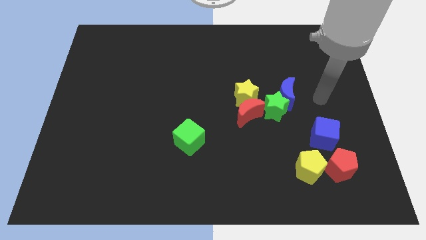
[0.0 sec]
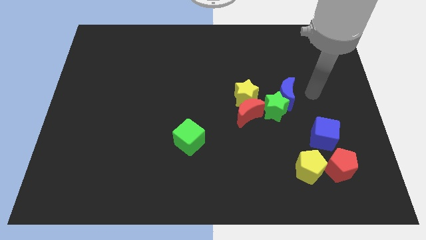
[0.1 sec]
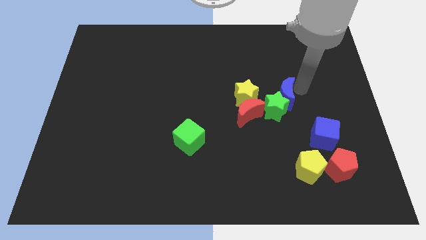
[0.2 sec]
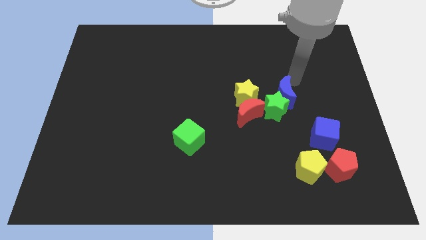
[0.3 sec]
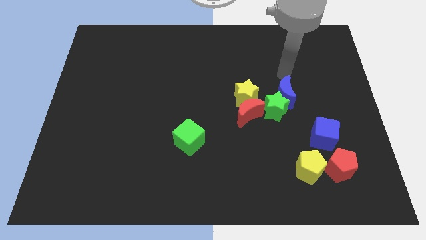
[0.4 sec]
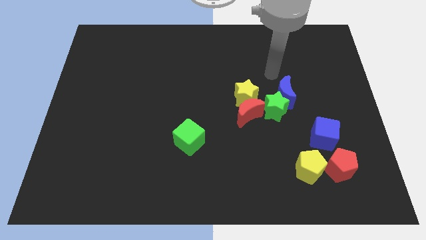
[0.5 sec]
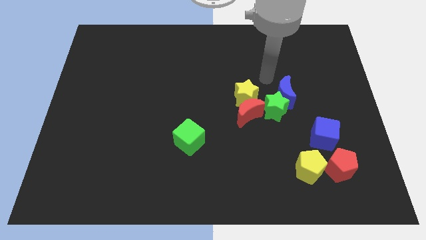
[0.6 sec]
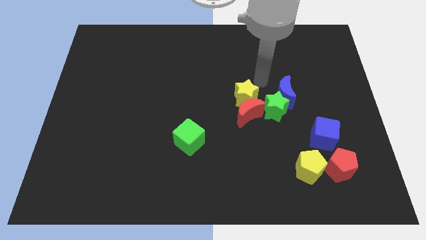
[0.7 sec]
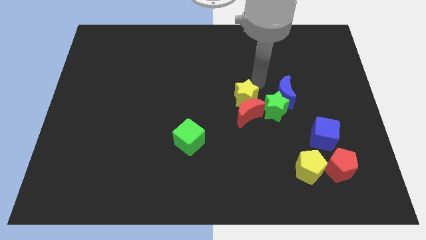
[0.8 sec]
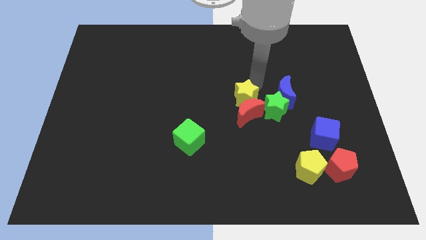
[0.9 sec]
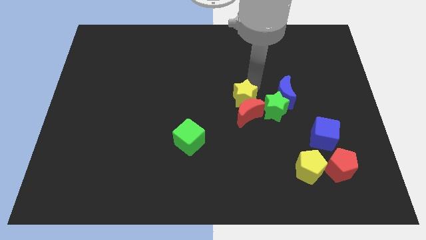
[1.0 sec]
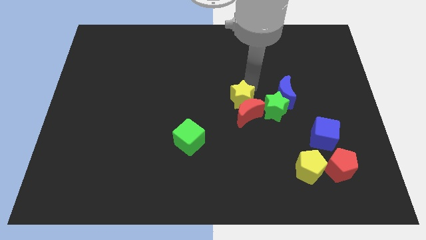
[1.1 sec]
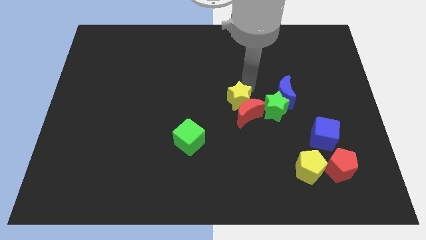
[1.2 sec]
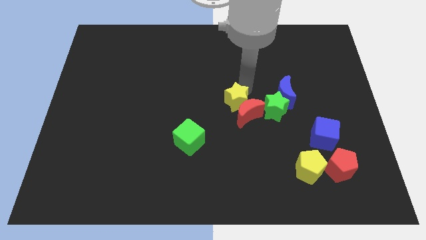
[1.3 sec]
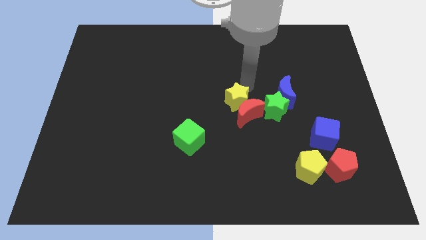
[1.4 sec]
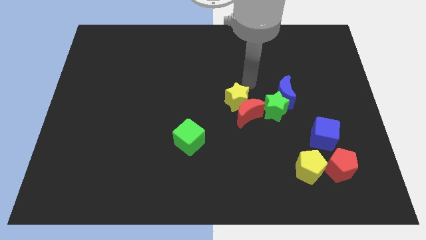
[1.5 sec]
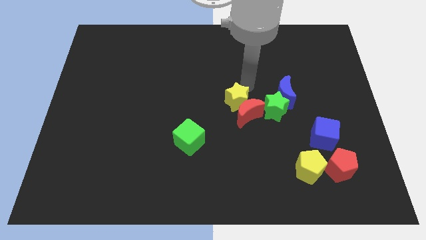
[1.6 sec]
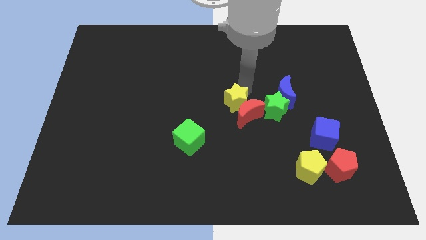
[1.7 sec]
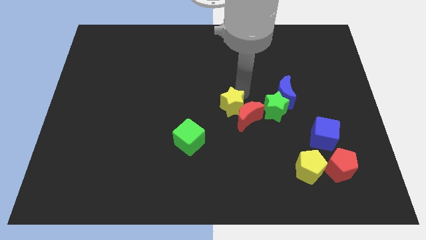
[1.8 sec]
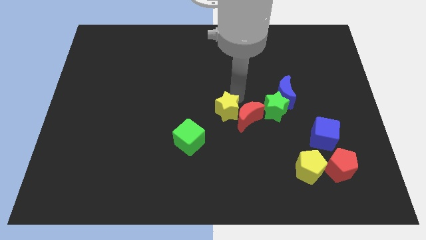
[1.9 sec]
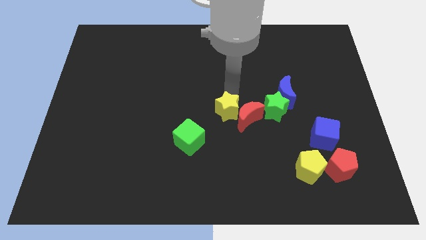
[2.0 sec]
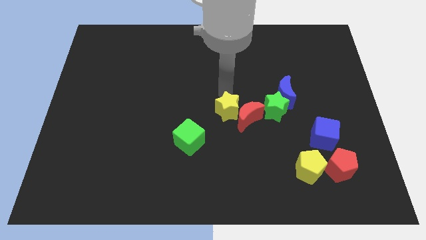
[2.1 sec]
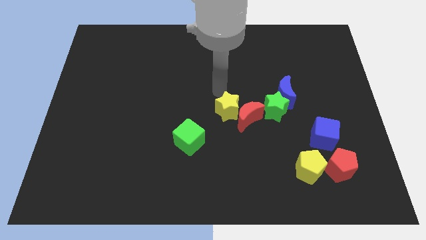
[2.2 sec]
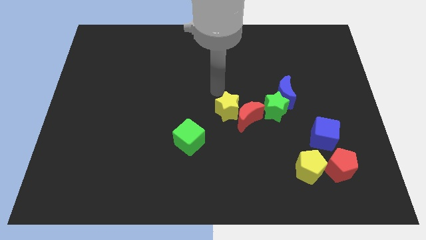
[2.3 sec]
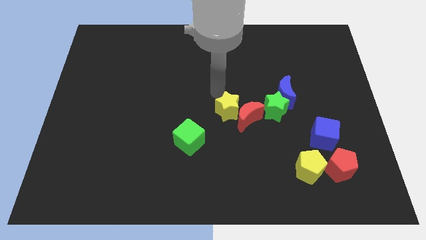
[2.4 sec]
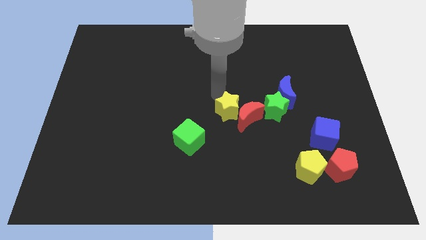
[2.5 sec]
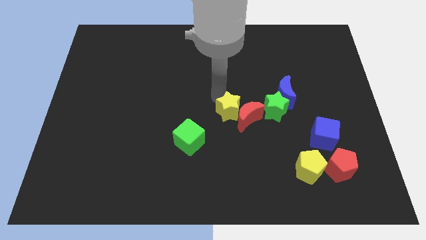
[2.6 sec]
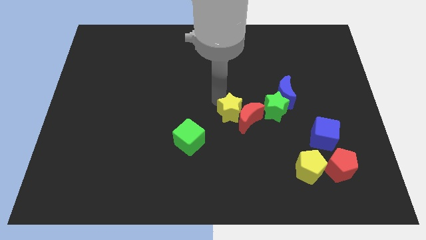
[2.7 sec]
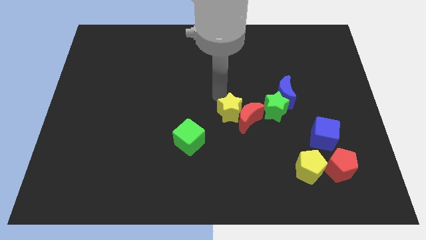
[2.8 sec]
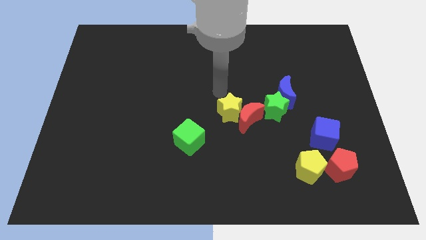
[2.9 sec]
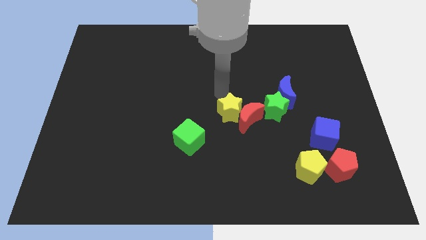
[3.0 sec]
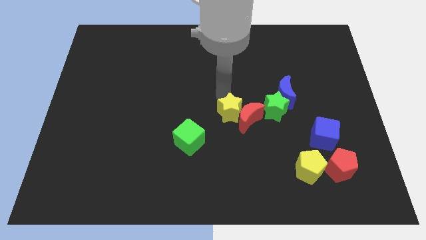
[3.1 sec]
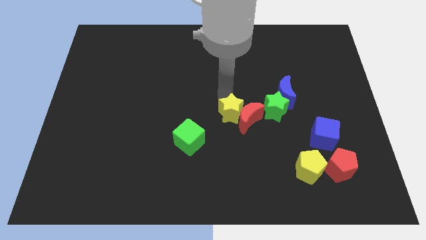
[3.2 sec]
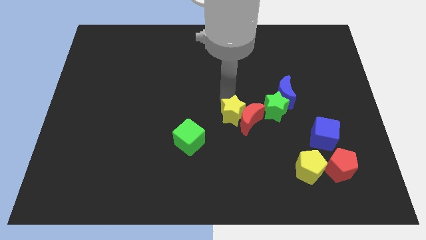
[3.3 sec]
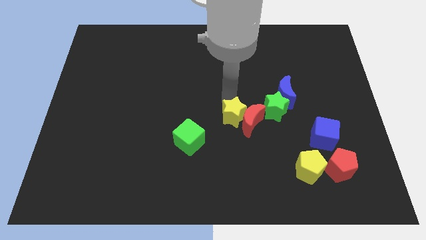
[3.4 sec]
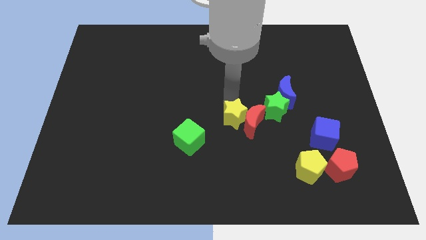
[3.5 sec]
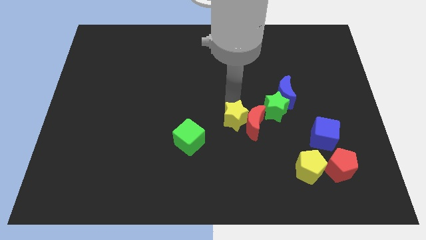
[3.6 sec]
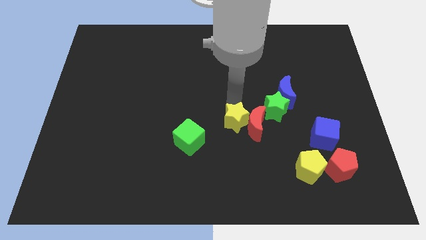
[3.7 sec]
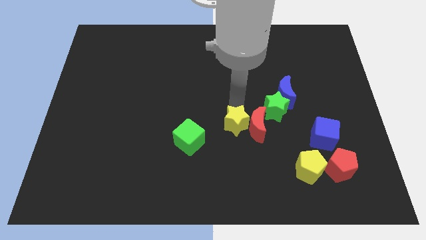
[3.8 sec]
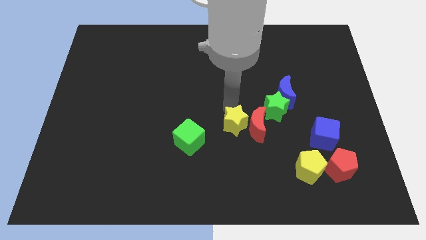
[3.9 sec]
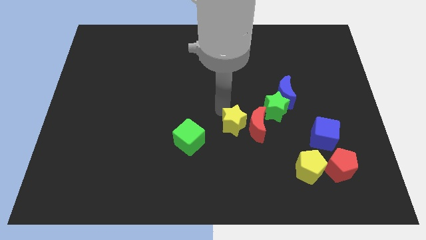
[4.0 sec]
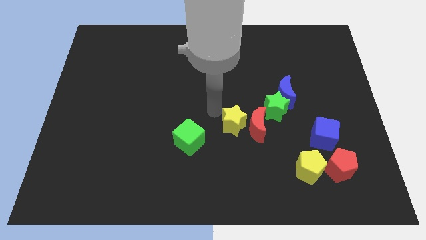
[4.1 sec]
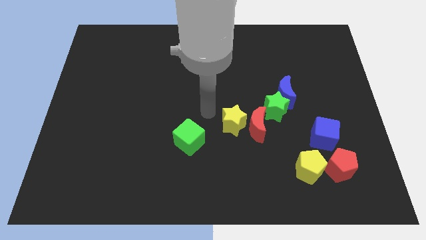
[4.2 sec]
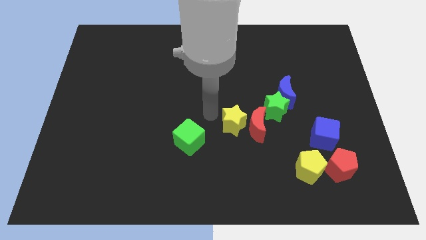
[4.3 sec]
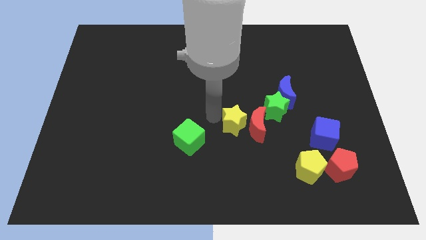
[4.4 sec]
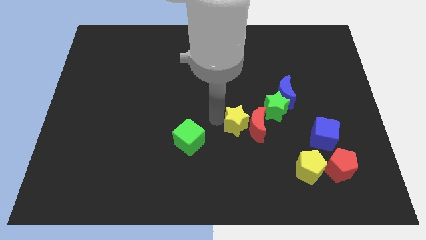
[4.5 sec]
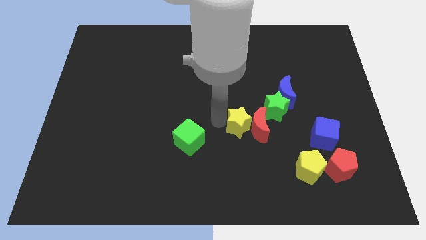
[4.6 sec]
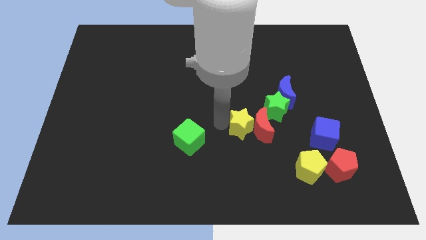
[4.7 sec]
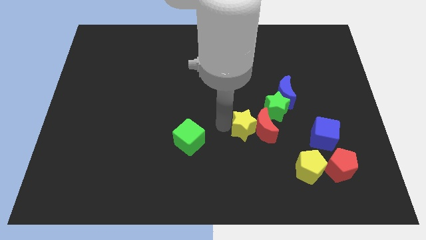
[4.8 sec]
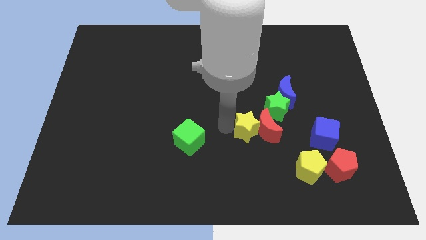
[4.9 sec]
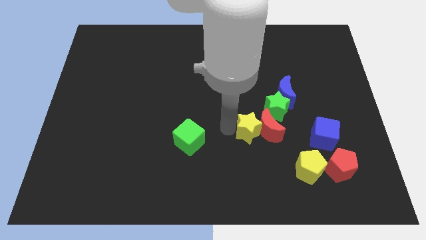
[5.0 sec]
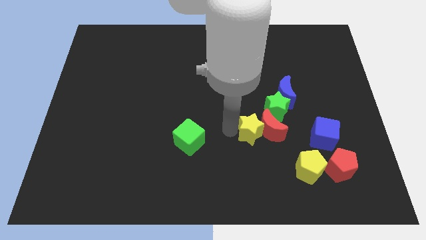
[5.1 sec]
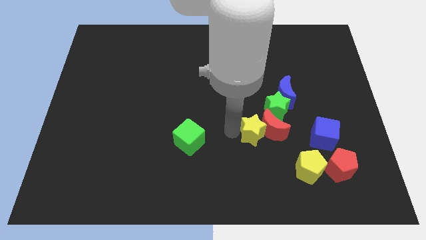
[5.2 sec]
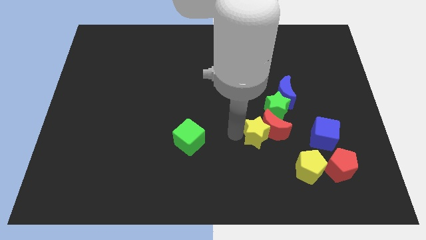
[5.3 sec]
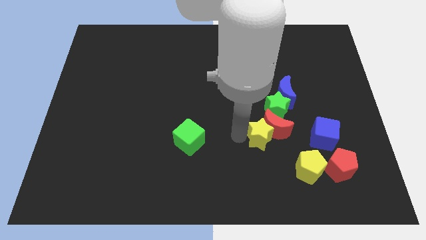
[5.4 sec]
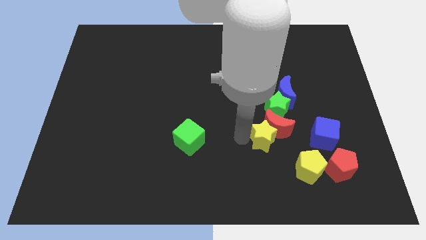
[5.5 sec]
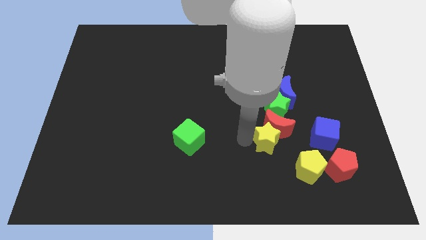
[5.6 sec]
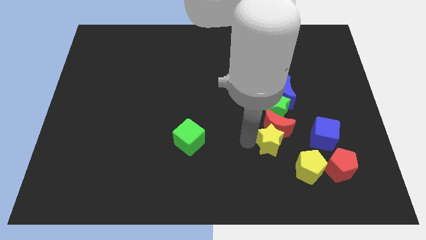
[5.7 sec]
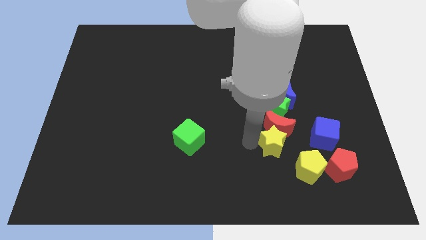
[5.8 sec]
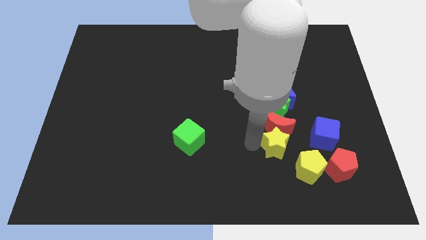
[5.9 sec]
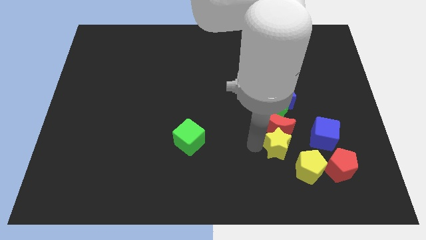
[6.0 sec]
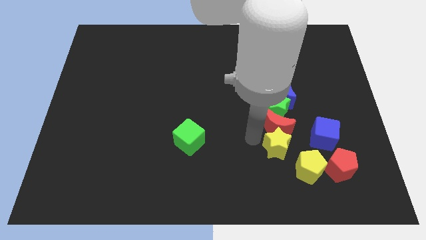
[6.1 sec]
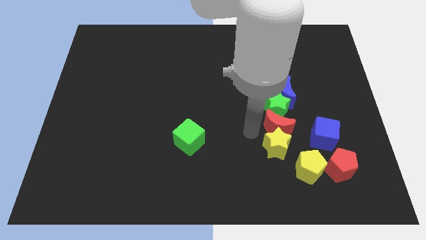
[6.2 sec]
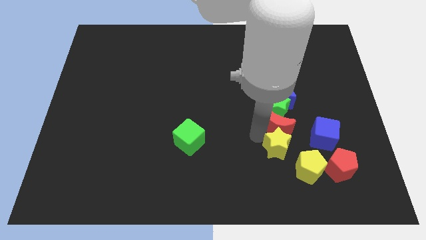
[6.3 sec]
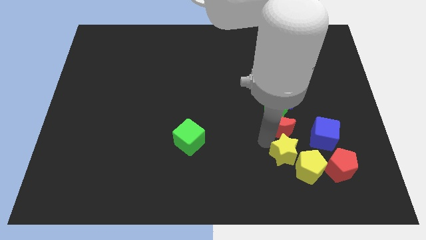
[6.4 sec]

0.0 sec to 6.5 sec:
put the yellow star close to the yellow pentagon

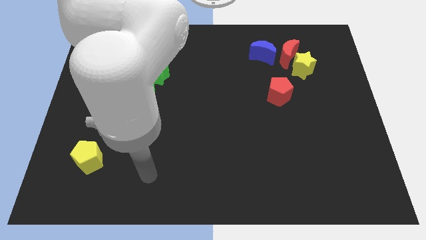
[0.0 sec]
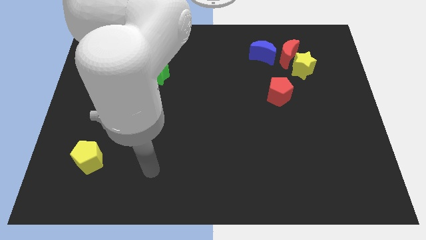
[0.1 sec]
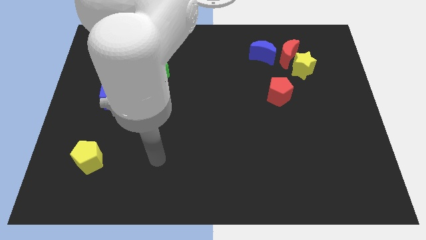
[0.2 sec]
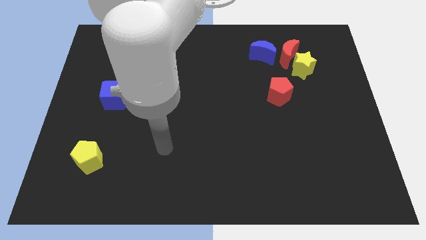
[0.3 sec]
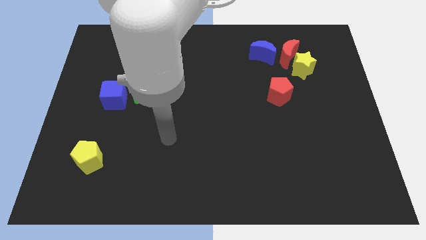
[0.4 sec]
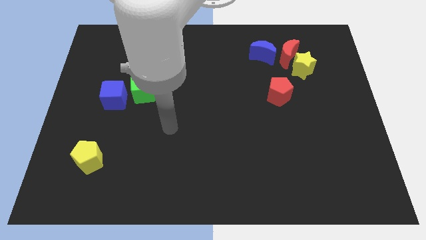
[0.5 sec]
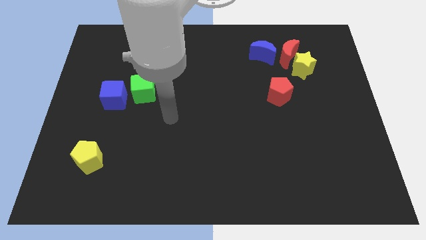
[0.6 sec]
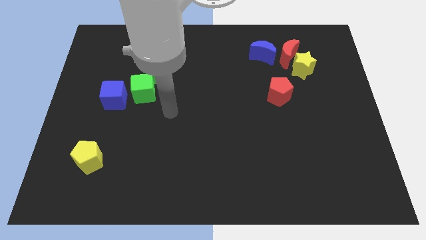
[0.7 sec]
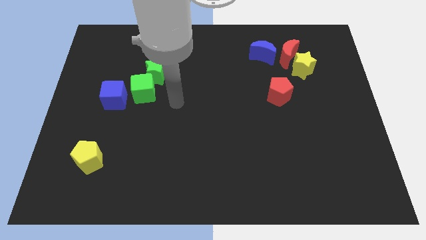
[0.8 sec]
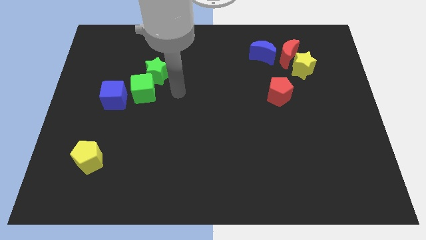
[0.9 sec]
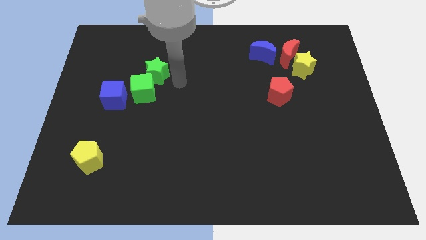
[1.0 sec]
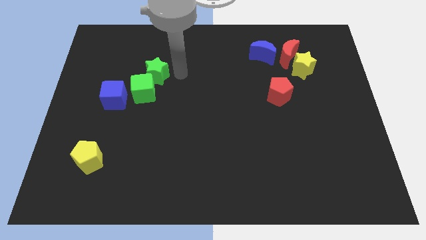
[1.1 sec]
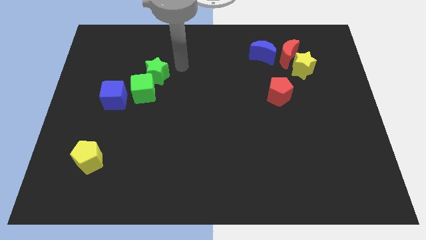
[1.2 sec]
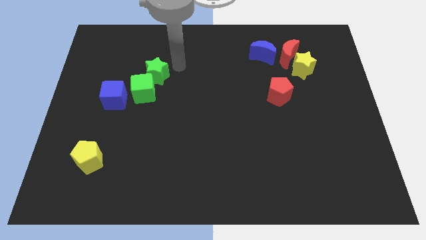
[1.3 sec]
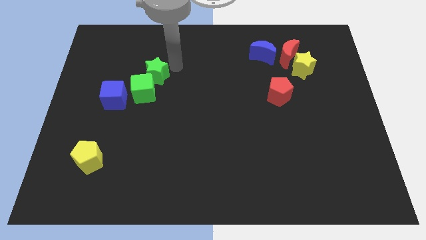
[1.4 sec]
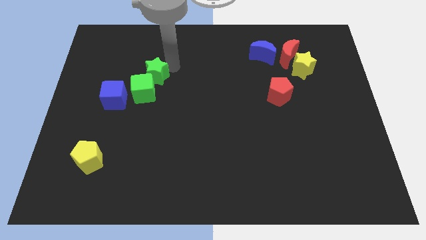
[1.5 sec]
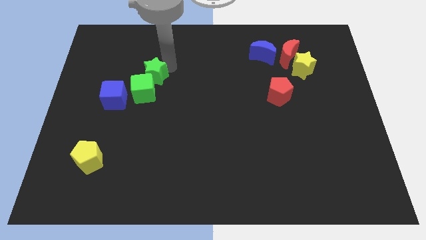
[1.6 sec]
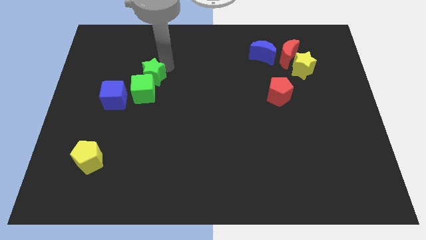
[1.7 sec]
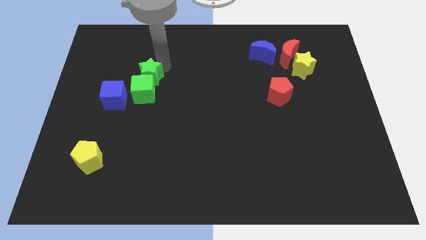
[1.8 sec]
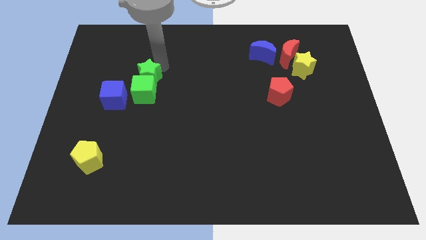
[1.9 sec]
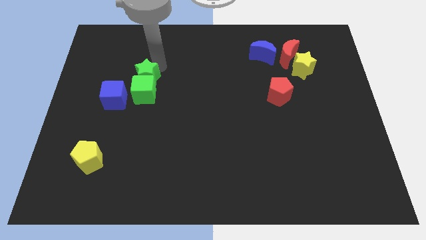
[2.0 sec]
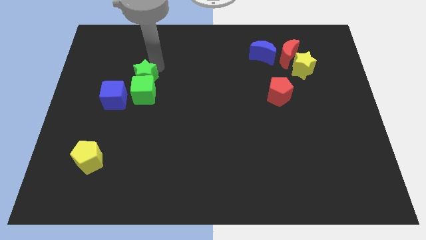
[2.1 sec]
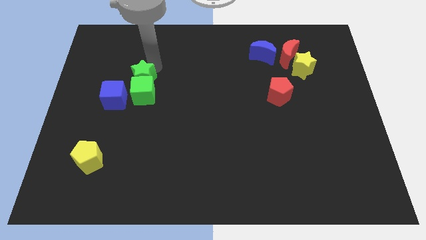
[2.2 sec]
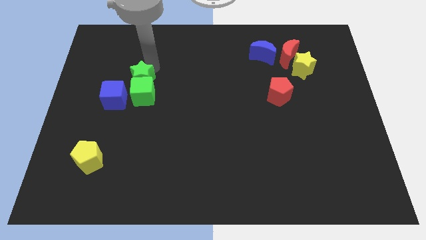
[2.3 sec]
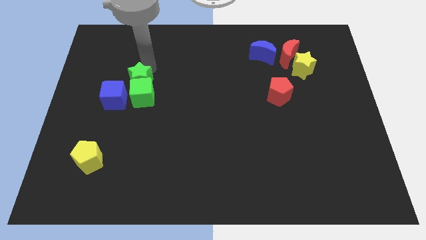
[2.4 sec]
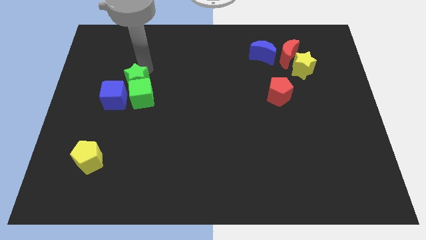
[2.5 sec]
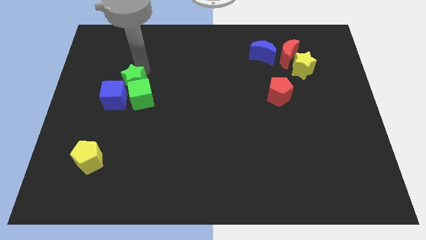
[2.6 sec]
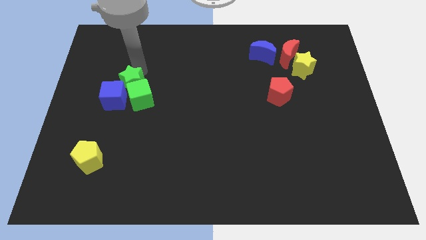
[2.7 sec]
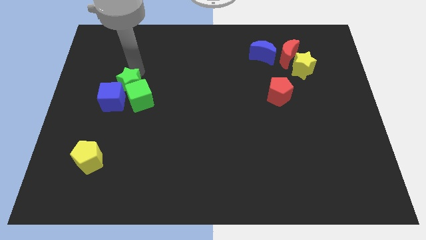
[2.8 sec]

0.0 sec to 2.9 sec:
push the green star close to the blue cube
